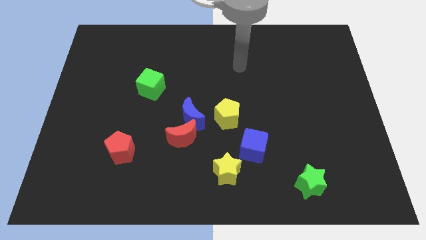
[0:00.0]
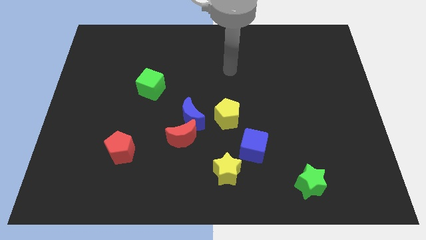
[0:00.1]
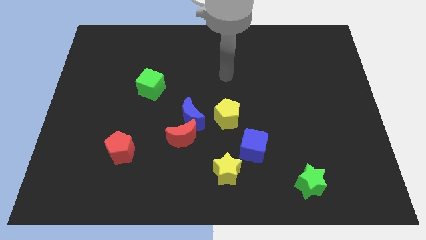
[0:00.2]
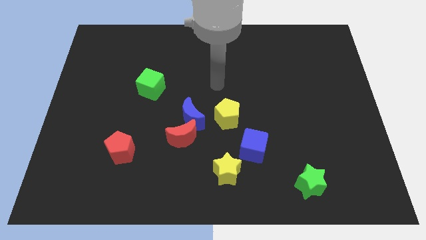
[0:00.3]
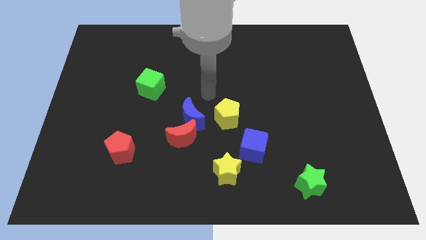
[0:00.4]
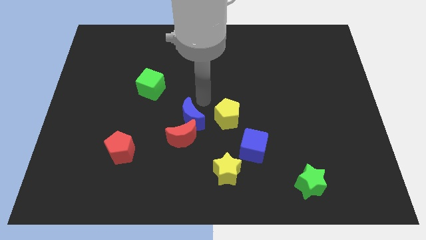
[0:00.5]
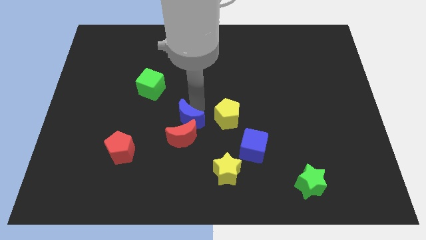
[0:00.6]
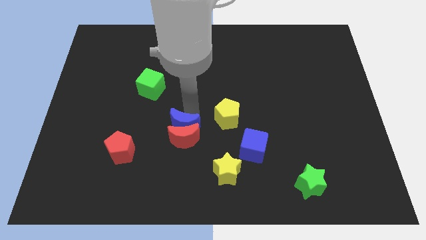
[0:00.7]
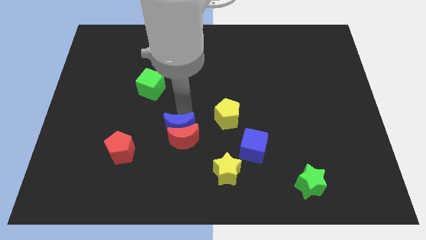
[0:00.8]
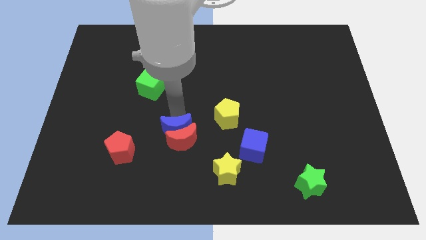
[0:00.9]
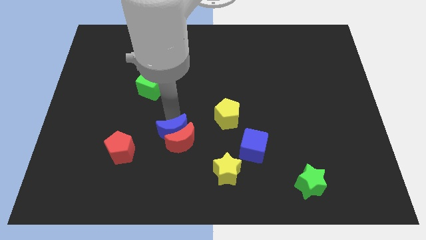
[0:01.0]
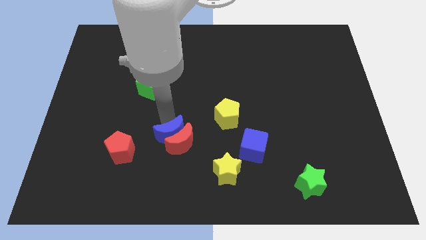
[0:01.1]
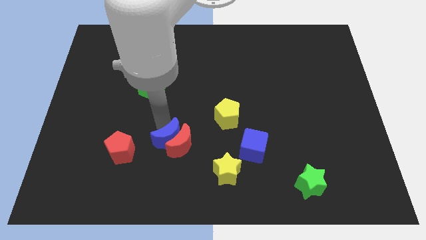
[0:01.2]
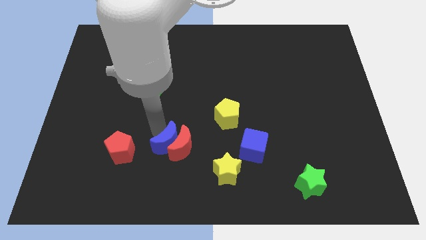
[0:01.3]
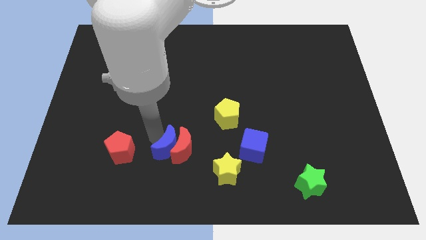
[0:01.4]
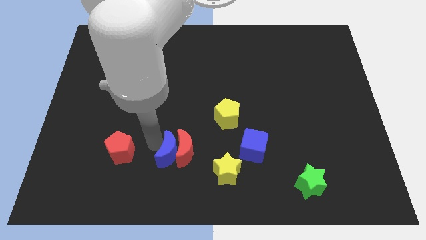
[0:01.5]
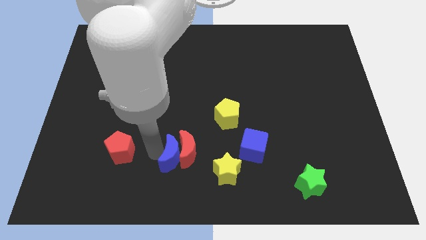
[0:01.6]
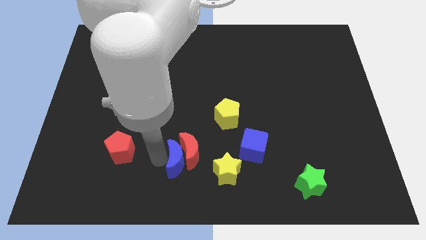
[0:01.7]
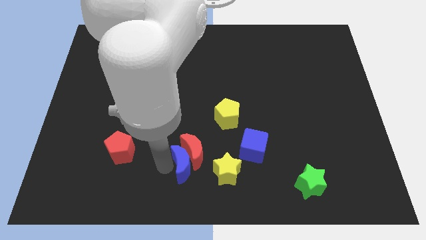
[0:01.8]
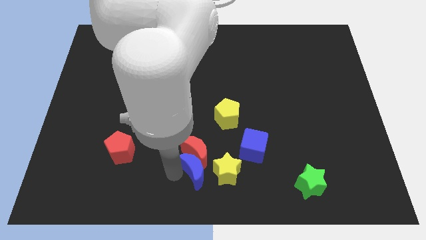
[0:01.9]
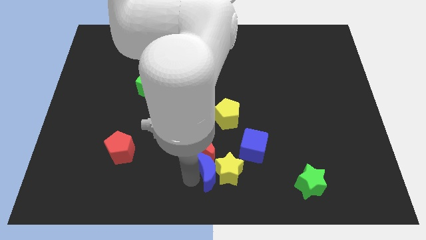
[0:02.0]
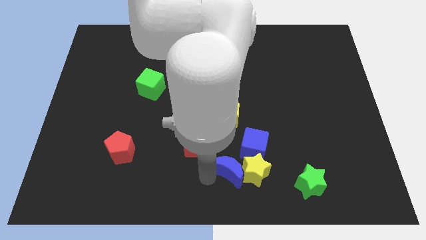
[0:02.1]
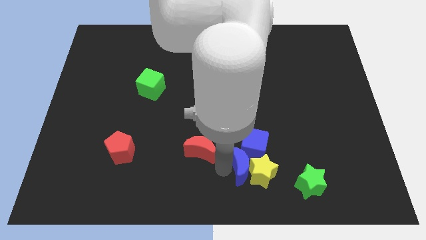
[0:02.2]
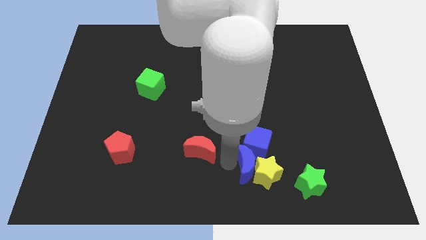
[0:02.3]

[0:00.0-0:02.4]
move the red moon away from the blue moon

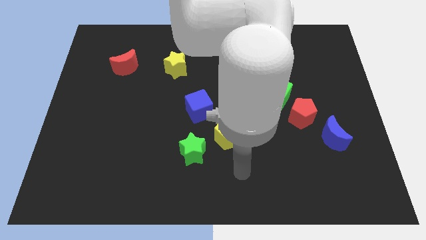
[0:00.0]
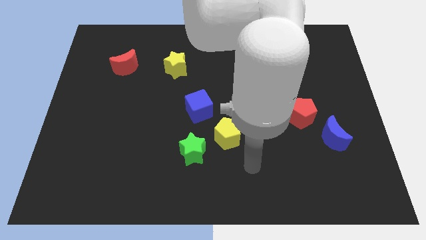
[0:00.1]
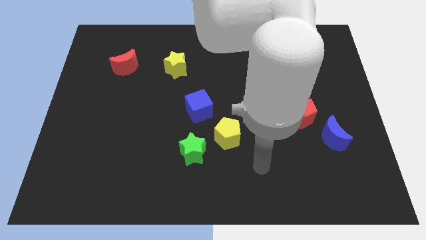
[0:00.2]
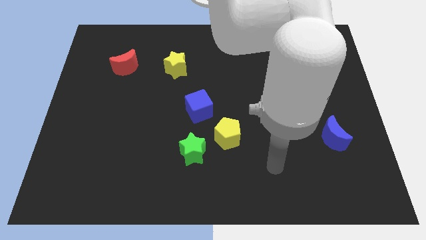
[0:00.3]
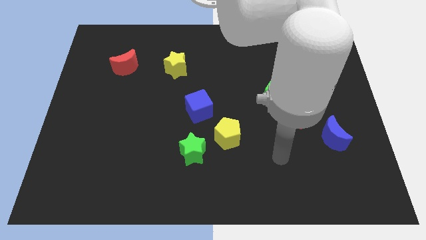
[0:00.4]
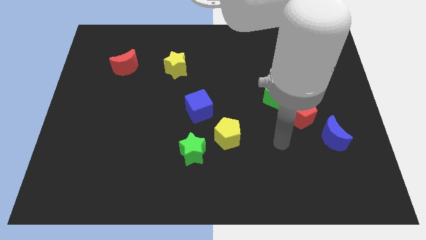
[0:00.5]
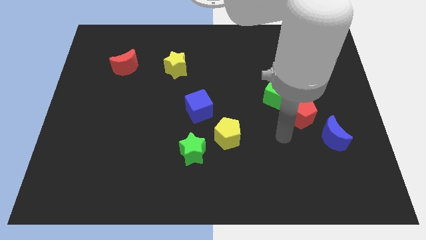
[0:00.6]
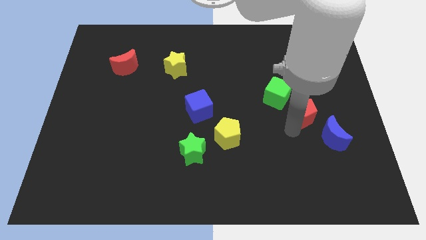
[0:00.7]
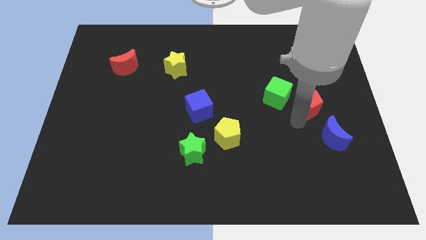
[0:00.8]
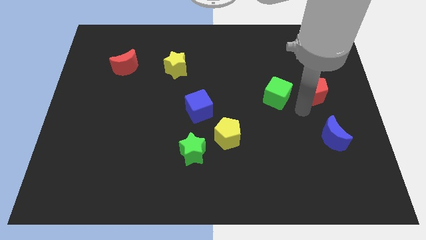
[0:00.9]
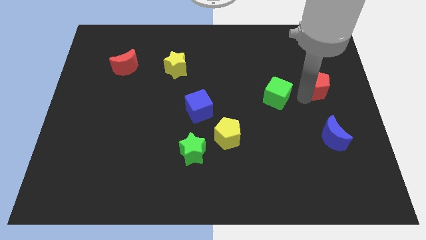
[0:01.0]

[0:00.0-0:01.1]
move the green cube away from the red pentagon

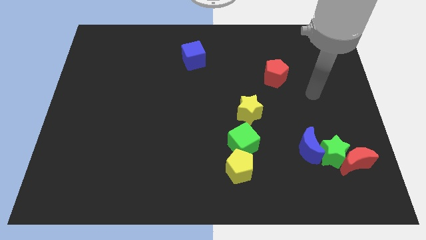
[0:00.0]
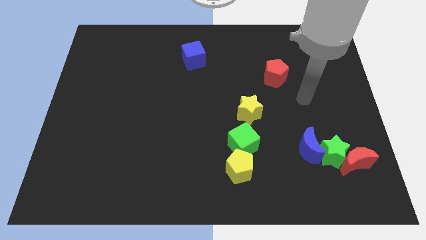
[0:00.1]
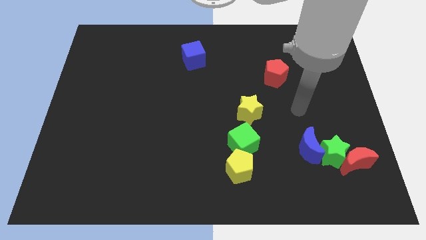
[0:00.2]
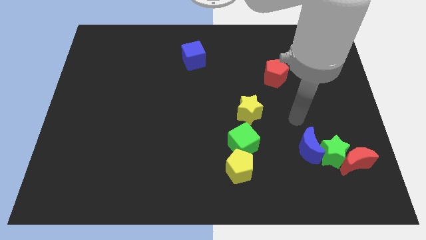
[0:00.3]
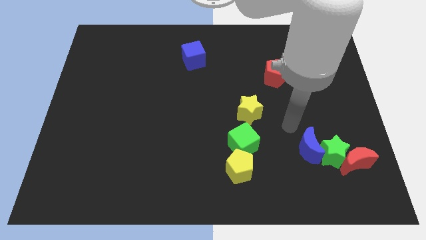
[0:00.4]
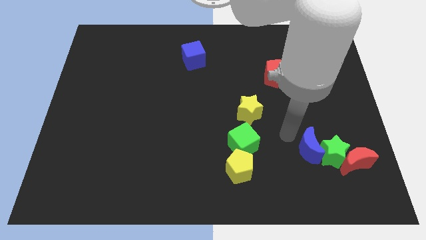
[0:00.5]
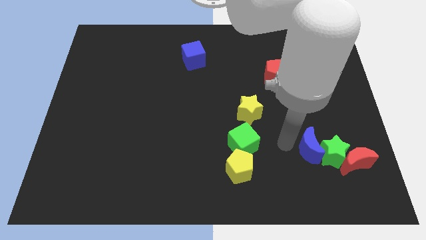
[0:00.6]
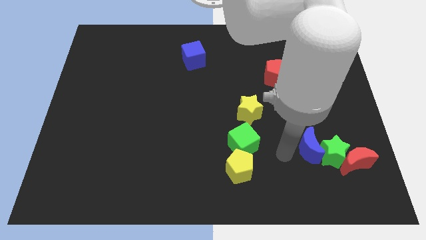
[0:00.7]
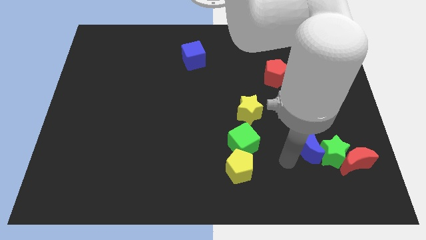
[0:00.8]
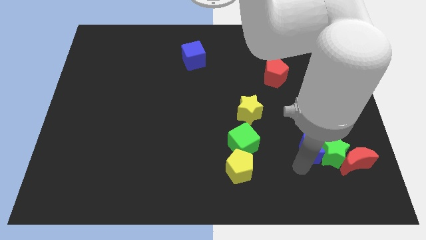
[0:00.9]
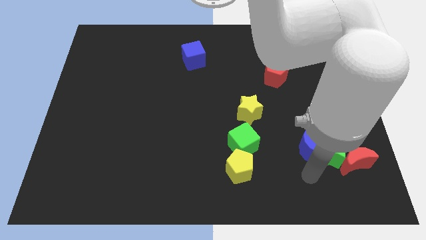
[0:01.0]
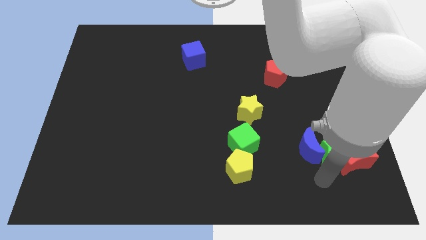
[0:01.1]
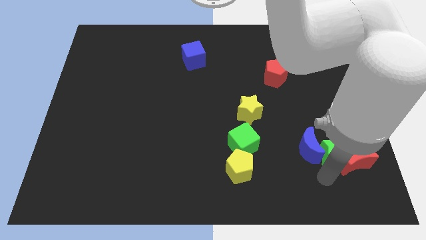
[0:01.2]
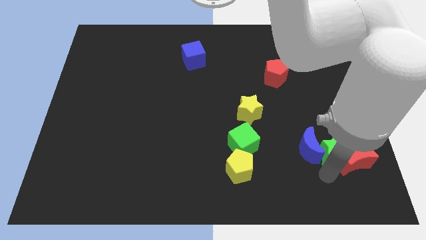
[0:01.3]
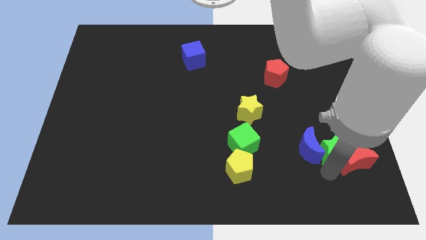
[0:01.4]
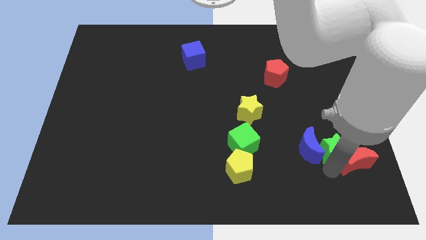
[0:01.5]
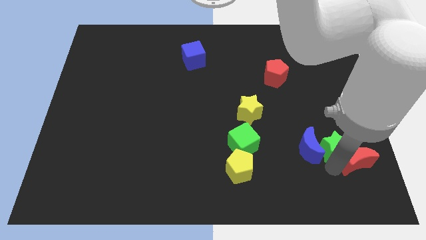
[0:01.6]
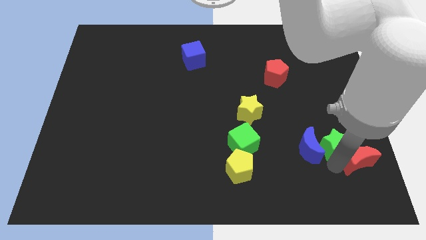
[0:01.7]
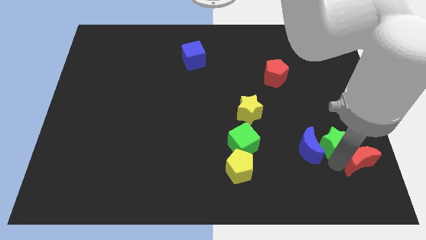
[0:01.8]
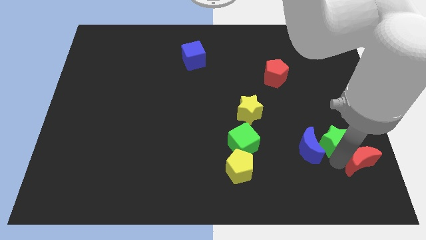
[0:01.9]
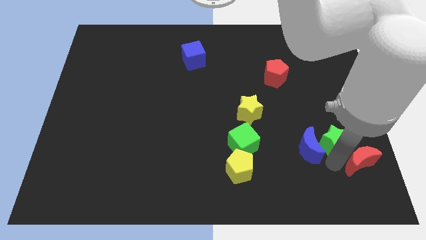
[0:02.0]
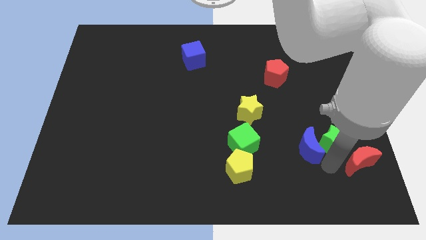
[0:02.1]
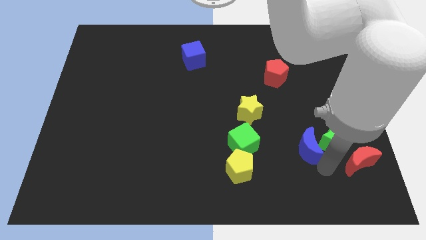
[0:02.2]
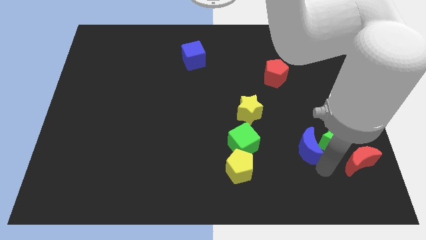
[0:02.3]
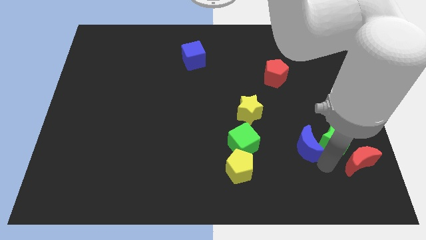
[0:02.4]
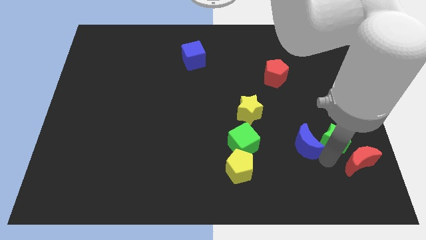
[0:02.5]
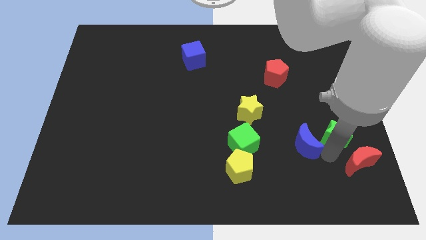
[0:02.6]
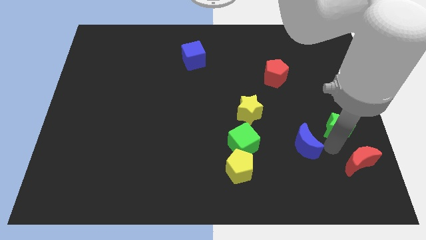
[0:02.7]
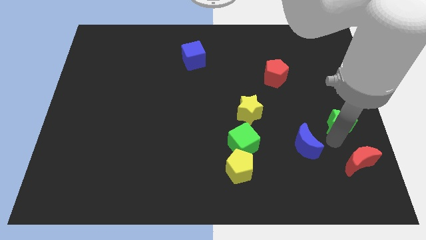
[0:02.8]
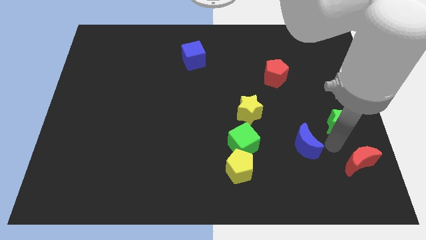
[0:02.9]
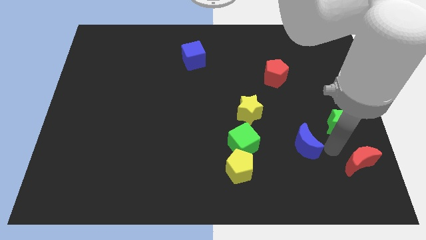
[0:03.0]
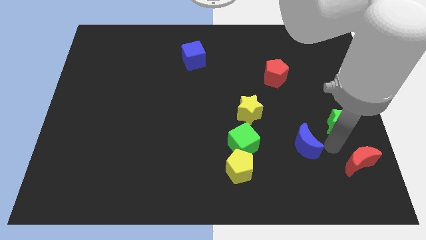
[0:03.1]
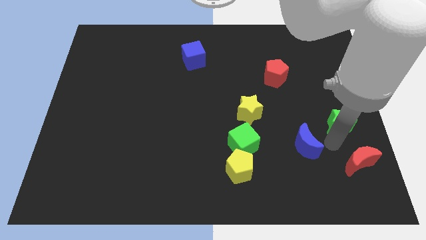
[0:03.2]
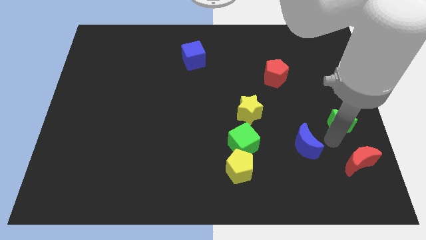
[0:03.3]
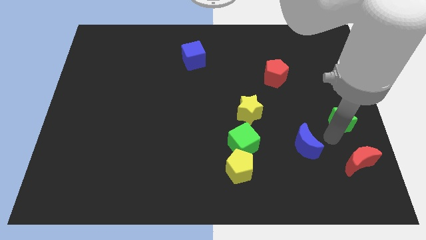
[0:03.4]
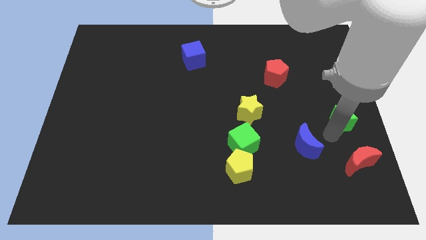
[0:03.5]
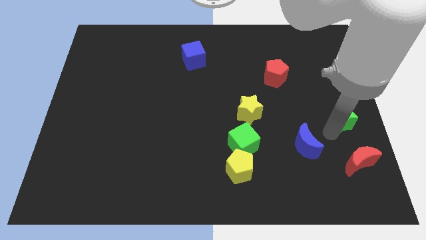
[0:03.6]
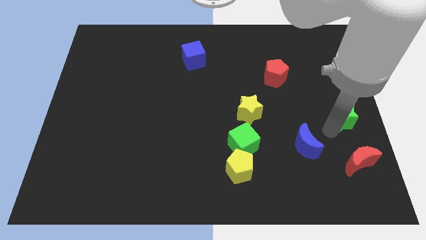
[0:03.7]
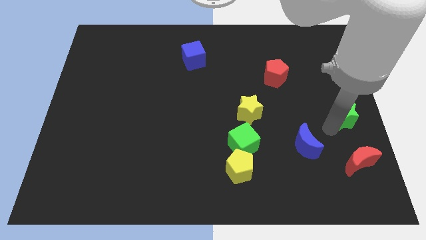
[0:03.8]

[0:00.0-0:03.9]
separate the green star from the blue moon and red moon

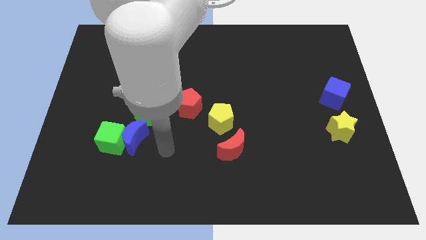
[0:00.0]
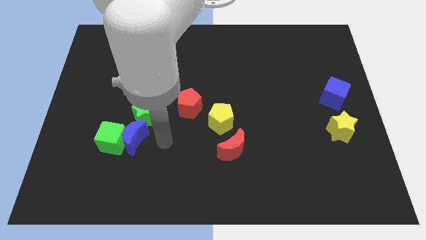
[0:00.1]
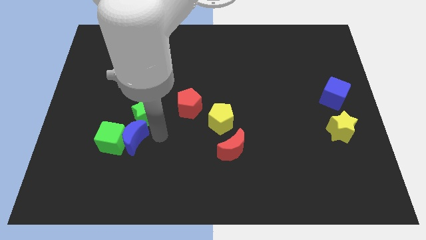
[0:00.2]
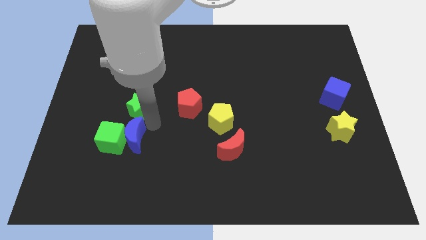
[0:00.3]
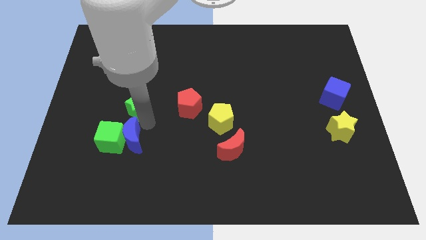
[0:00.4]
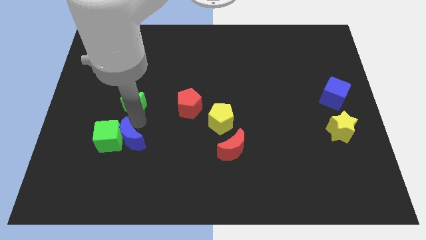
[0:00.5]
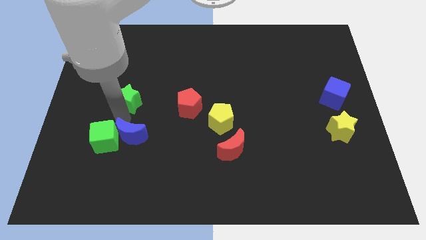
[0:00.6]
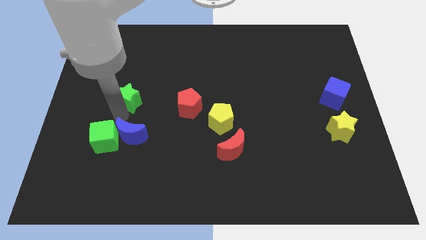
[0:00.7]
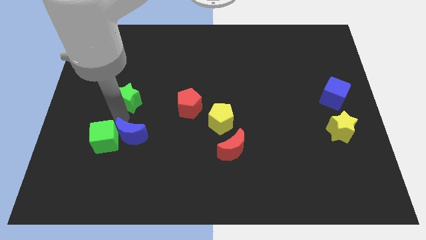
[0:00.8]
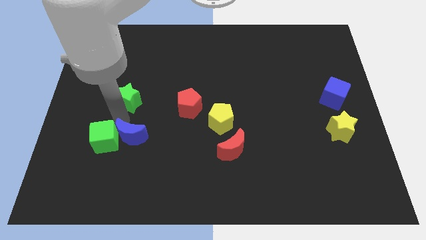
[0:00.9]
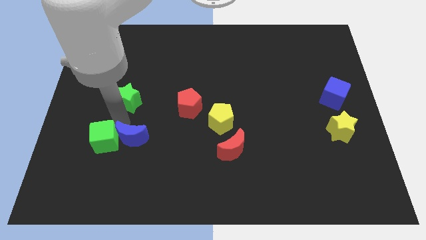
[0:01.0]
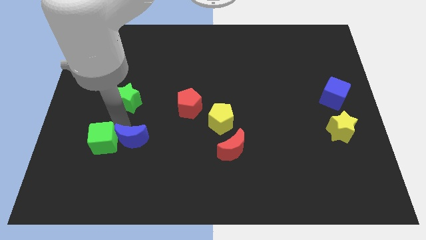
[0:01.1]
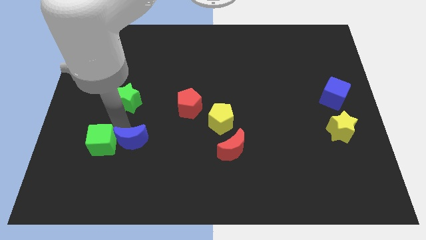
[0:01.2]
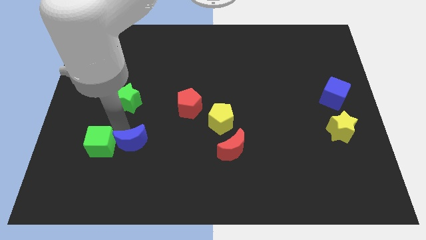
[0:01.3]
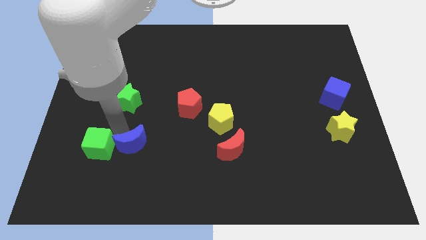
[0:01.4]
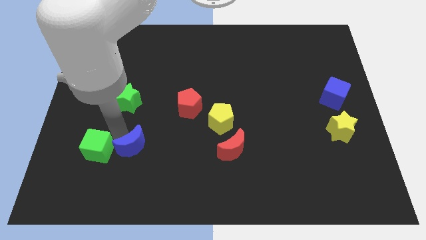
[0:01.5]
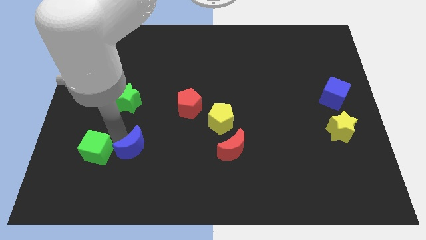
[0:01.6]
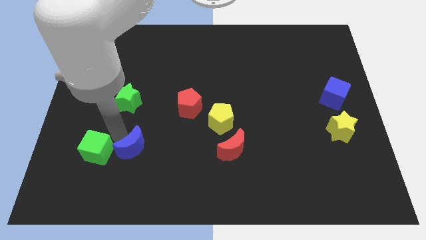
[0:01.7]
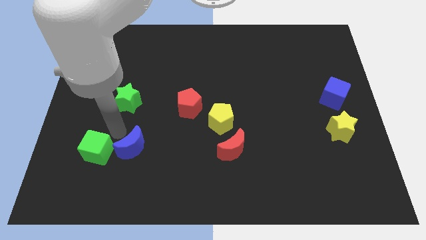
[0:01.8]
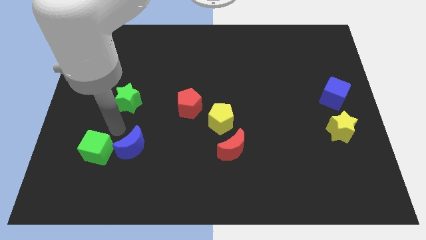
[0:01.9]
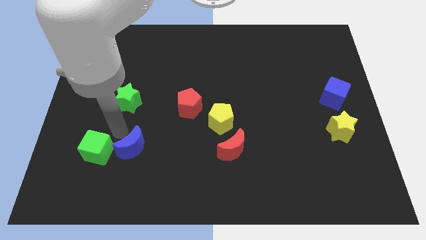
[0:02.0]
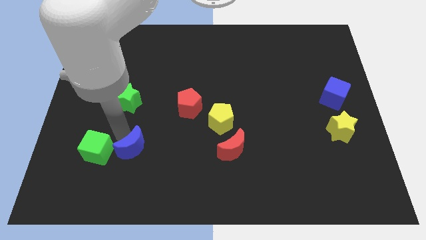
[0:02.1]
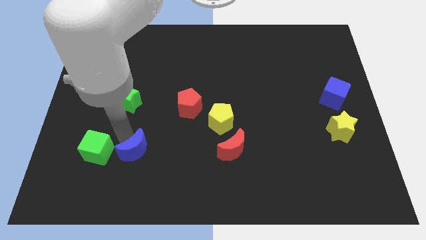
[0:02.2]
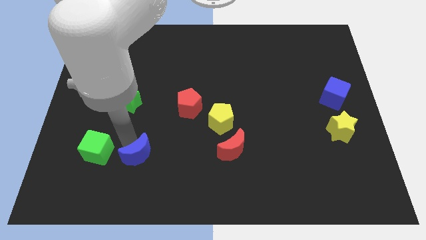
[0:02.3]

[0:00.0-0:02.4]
pull the blue moon apart from the green cube and green star
